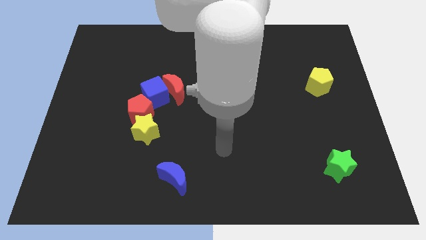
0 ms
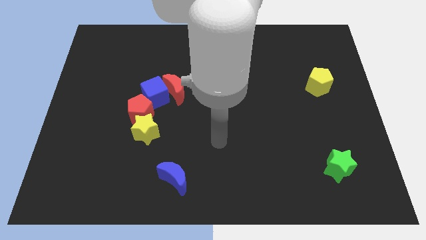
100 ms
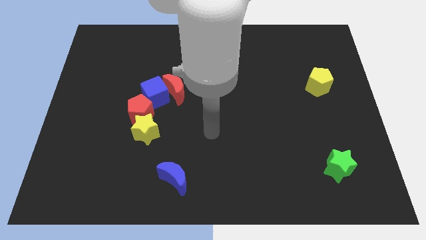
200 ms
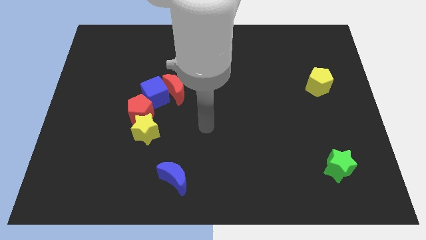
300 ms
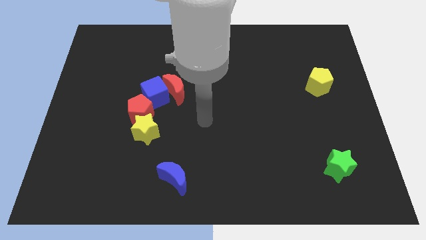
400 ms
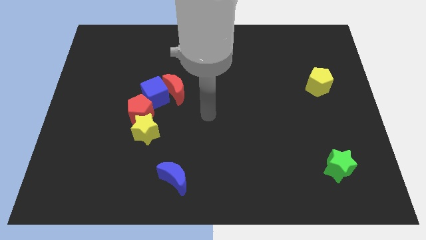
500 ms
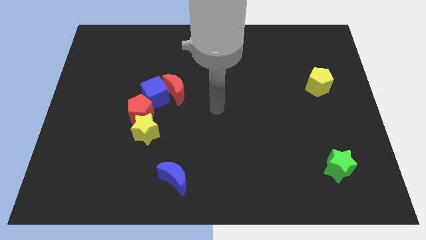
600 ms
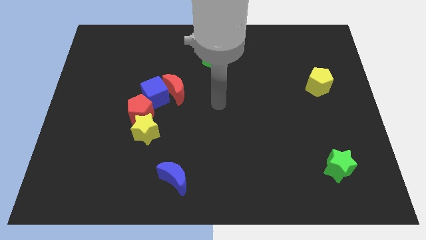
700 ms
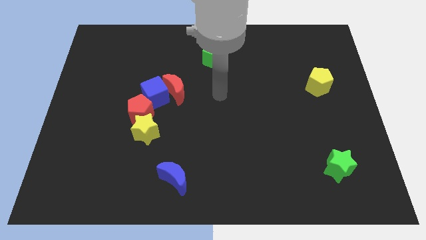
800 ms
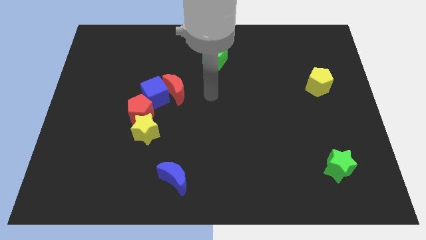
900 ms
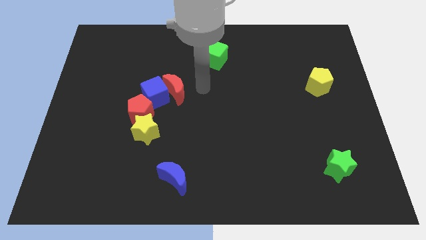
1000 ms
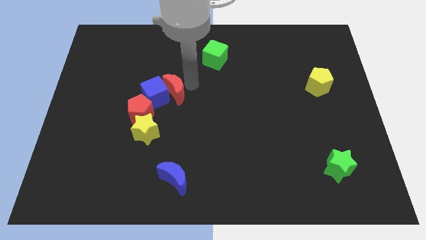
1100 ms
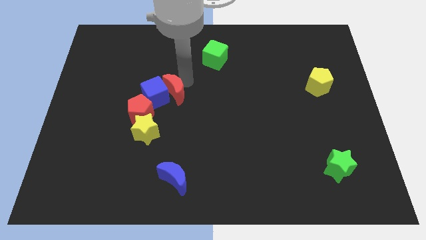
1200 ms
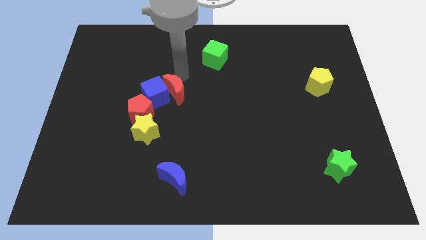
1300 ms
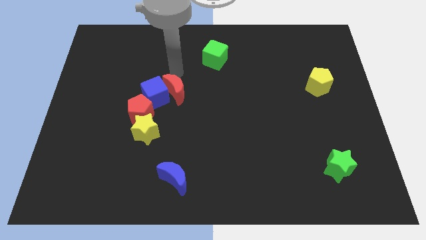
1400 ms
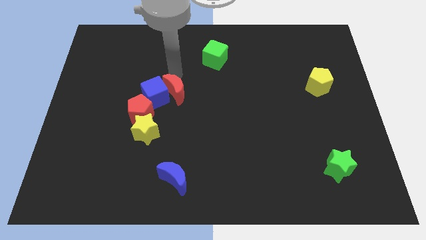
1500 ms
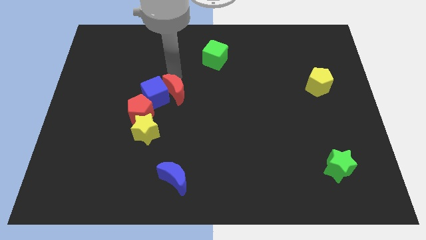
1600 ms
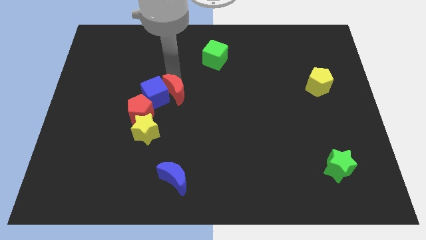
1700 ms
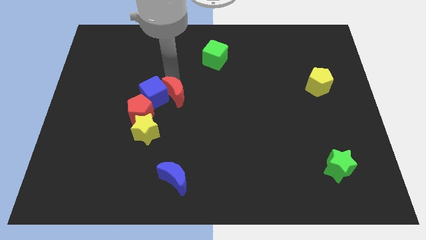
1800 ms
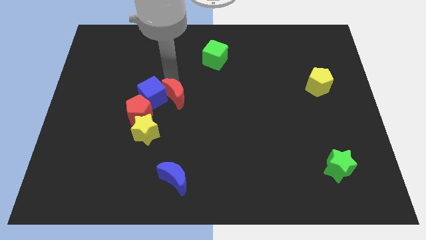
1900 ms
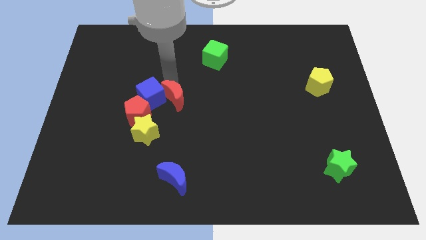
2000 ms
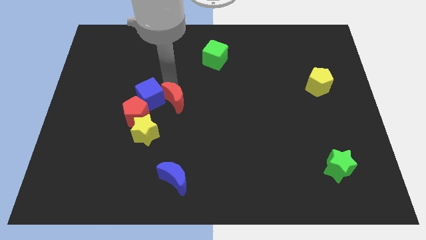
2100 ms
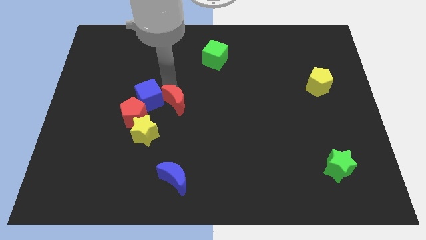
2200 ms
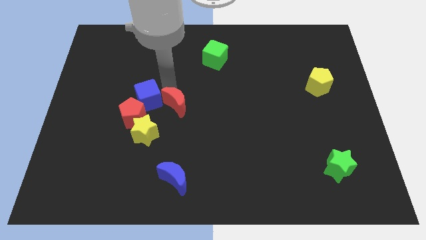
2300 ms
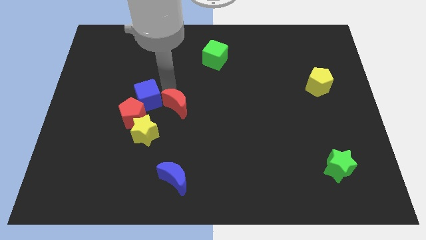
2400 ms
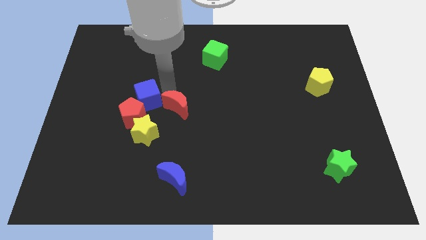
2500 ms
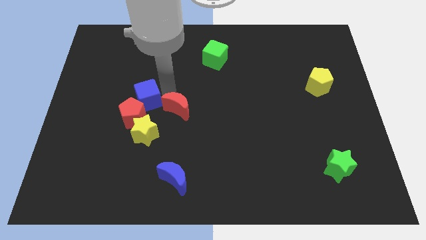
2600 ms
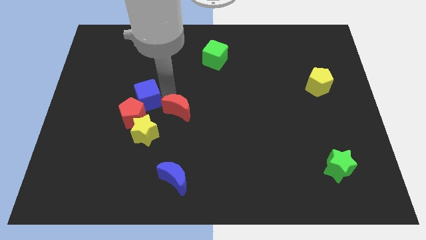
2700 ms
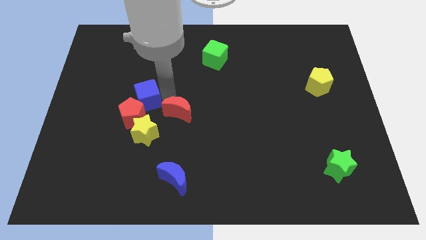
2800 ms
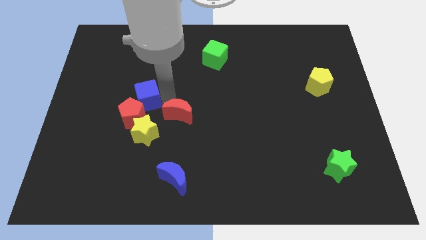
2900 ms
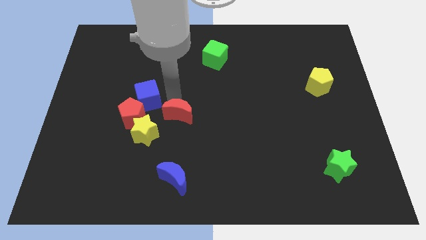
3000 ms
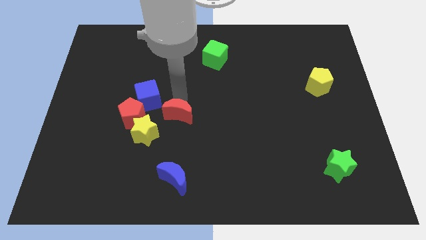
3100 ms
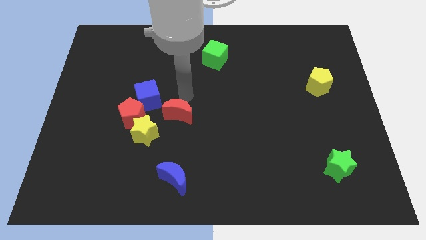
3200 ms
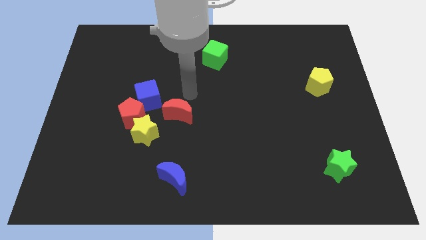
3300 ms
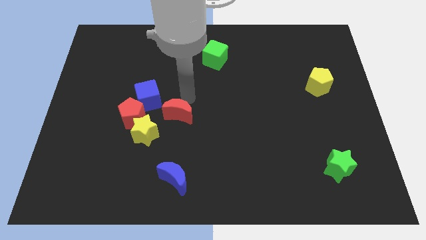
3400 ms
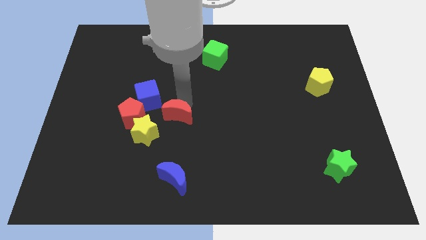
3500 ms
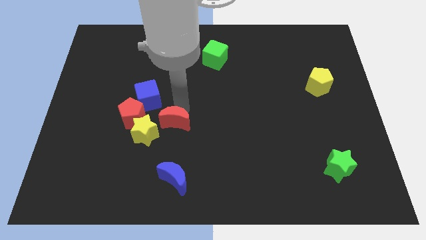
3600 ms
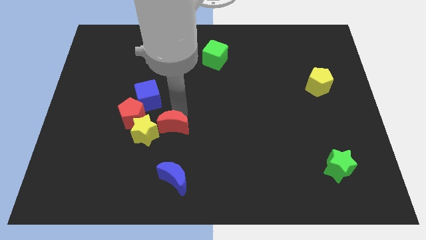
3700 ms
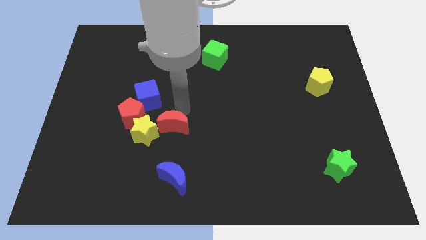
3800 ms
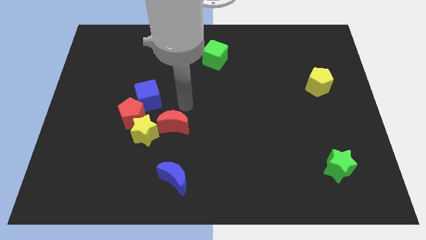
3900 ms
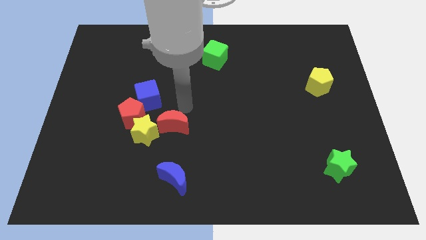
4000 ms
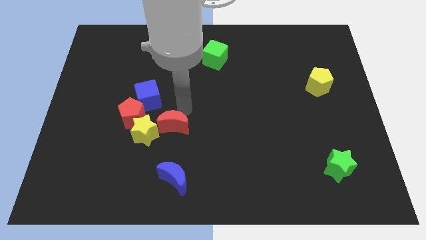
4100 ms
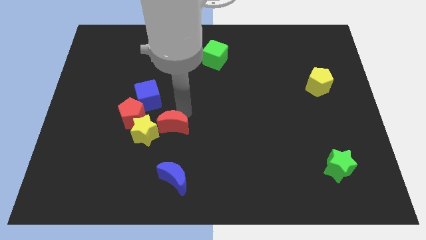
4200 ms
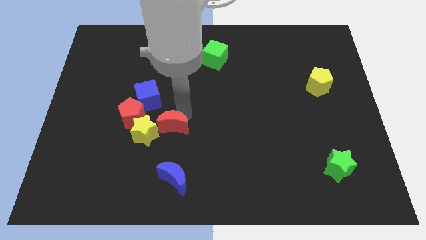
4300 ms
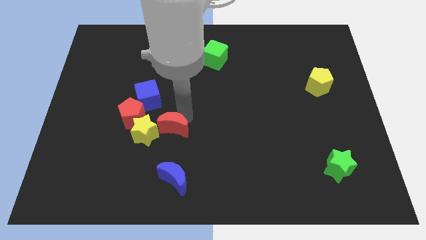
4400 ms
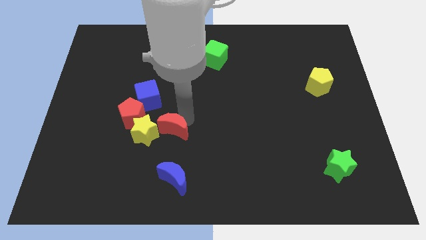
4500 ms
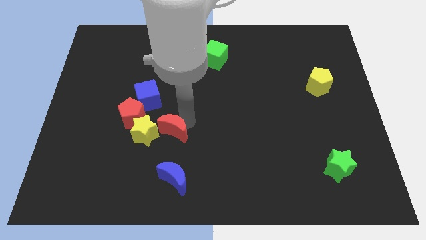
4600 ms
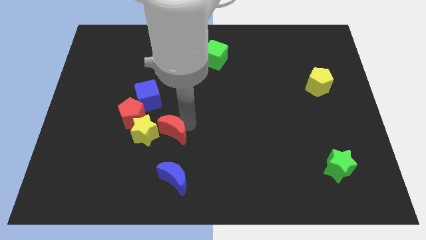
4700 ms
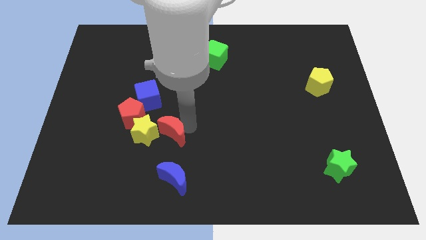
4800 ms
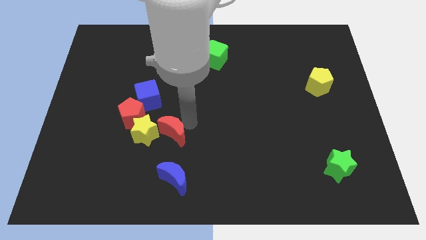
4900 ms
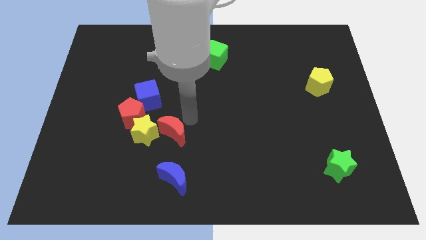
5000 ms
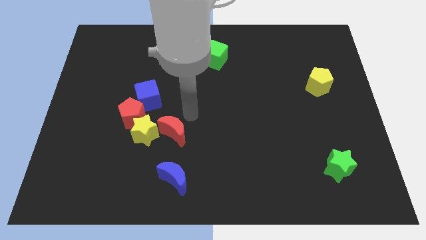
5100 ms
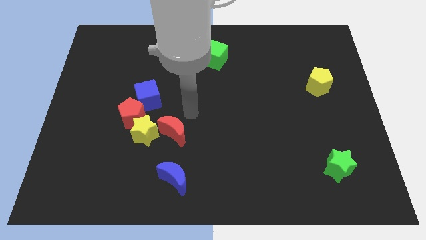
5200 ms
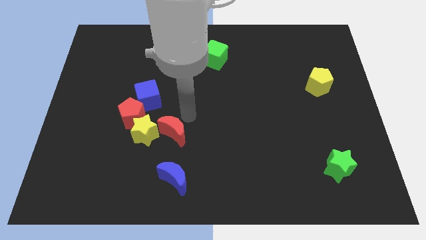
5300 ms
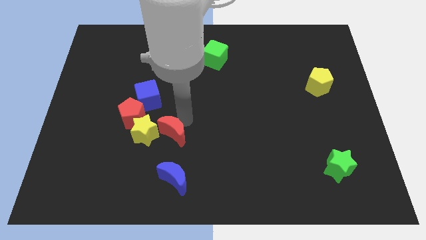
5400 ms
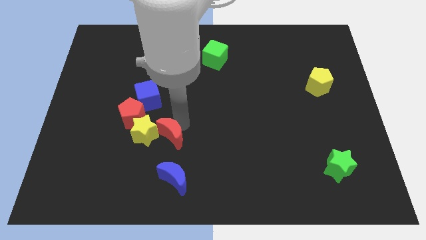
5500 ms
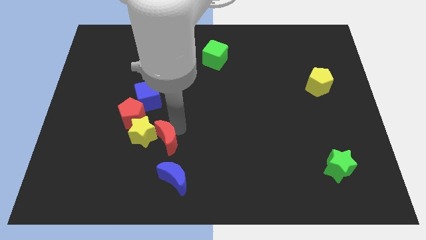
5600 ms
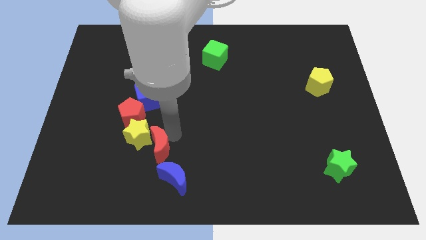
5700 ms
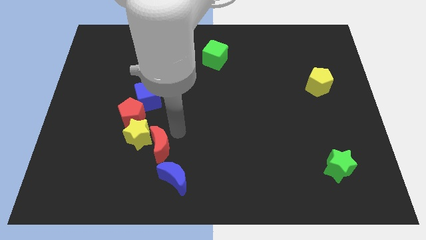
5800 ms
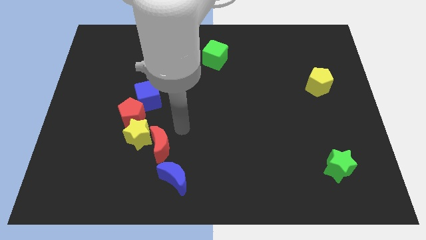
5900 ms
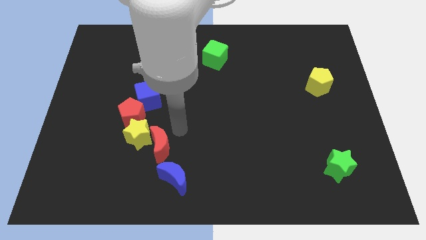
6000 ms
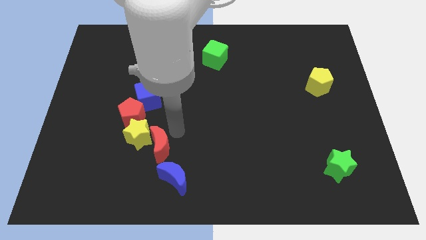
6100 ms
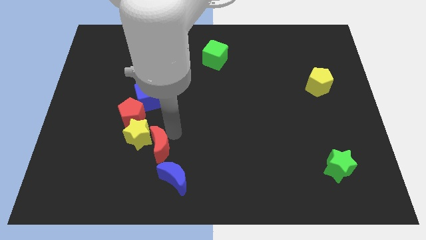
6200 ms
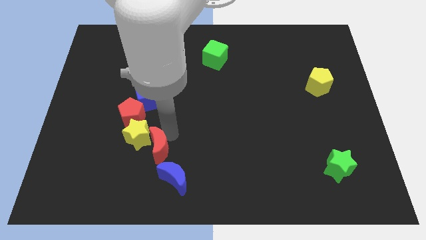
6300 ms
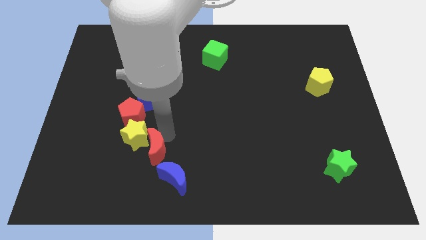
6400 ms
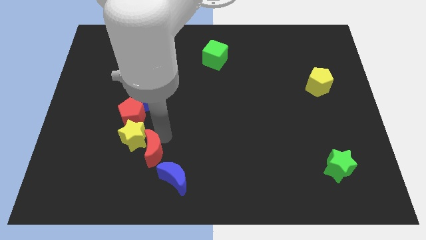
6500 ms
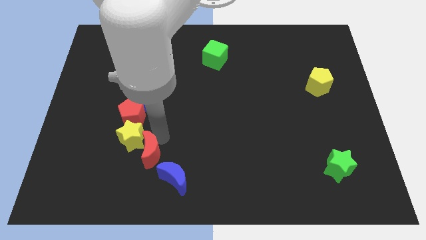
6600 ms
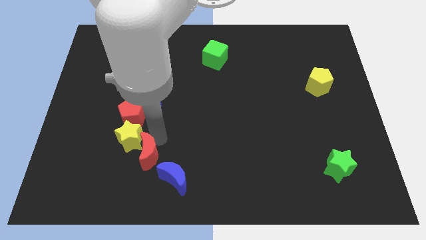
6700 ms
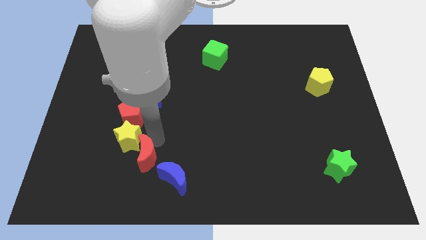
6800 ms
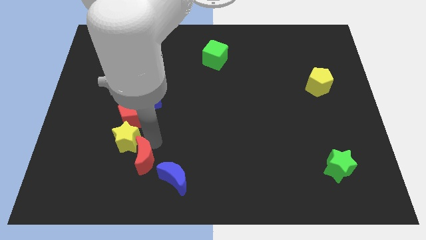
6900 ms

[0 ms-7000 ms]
push the red moon just left of the blue moon

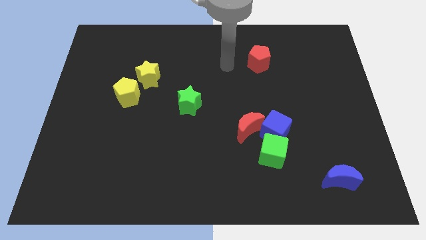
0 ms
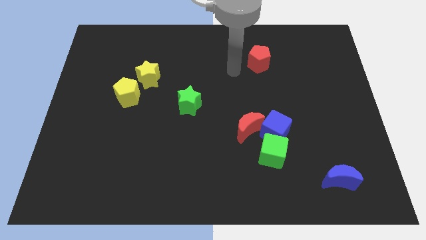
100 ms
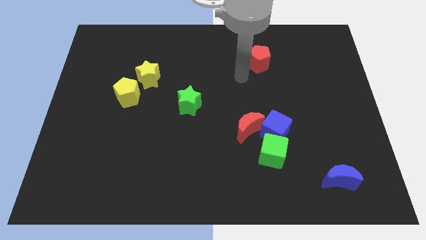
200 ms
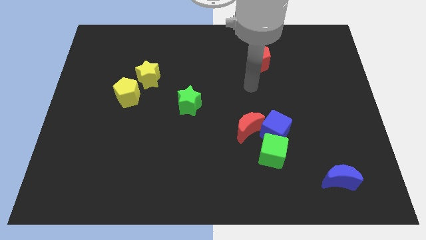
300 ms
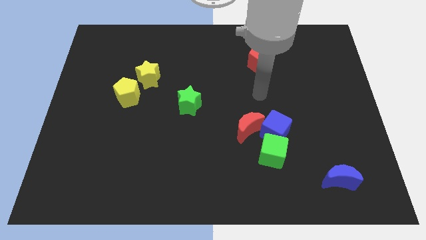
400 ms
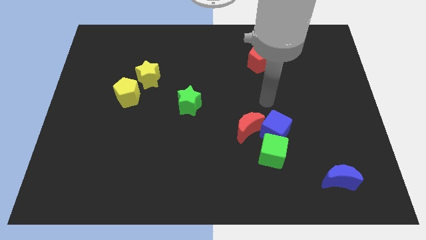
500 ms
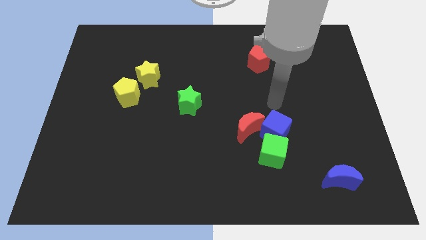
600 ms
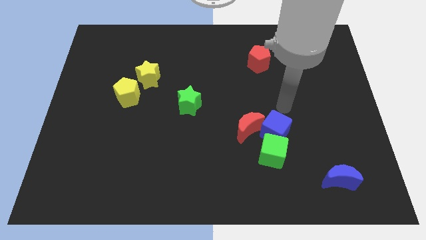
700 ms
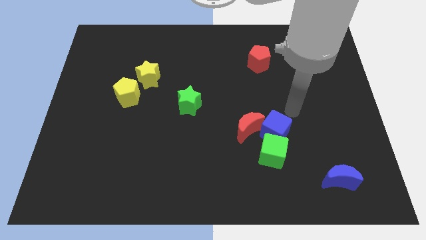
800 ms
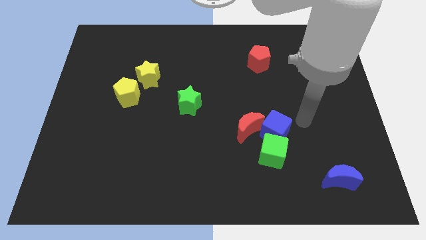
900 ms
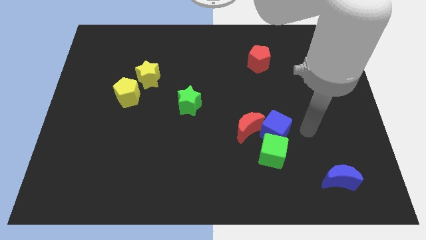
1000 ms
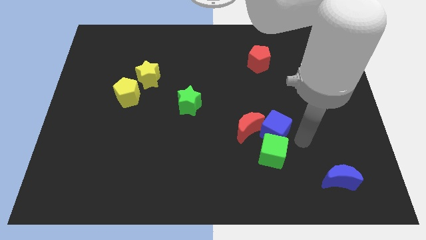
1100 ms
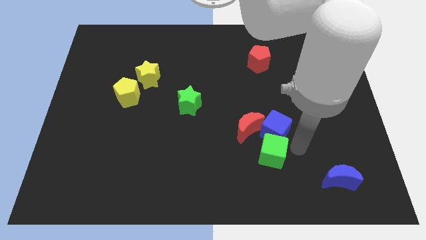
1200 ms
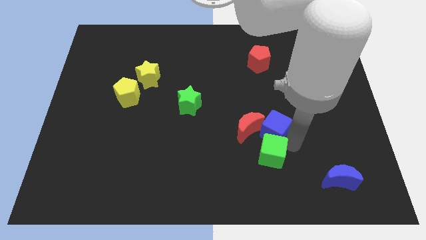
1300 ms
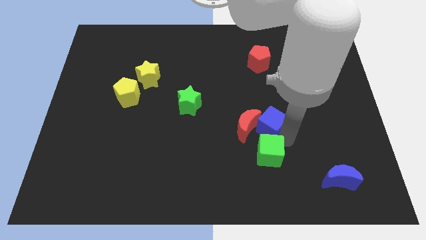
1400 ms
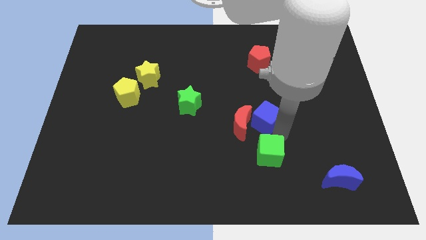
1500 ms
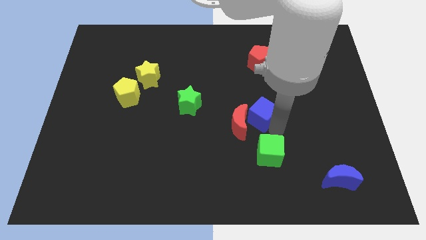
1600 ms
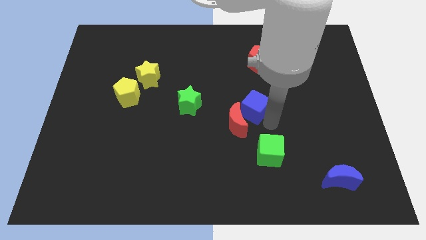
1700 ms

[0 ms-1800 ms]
move the blue cube right of the green star
